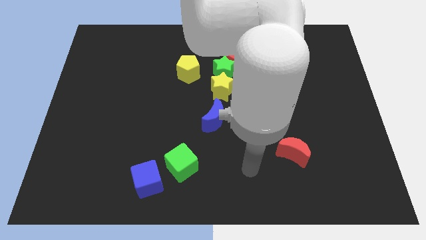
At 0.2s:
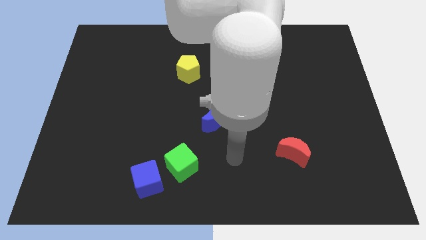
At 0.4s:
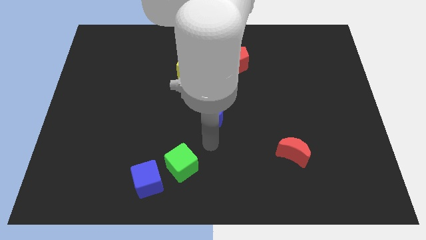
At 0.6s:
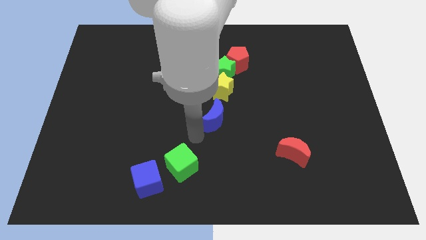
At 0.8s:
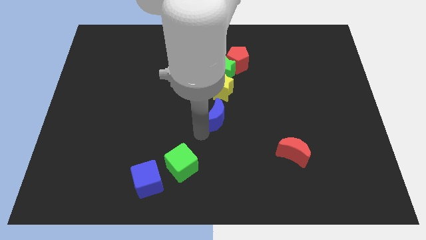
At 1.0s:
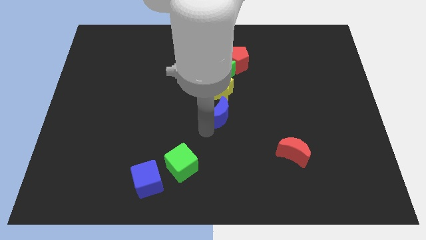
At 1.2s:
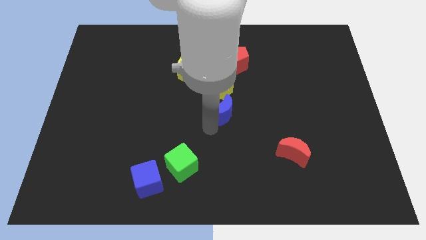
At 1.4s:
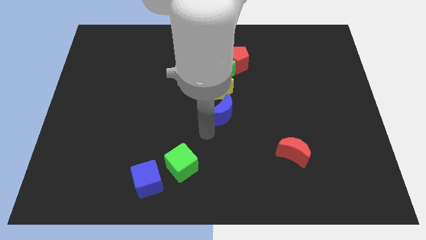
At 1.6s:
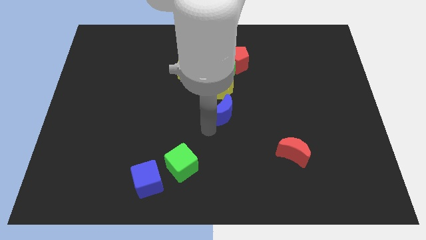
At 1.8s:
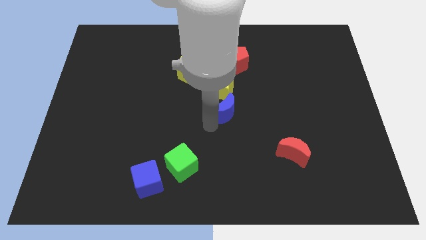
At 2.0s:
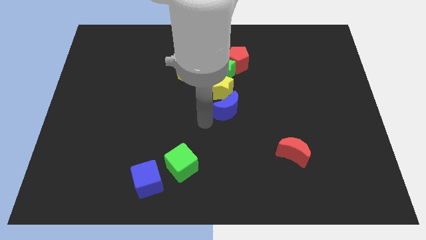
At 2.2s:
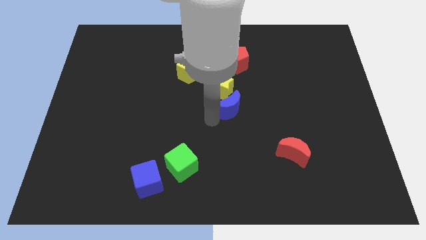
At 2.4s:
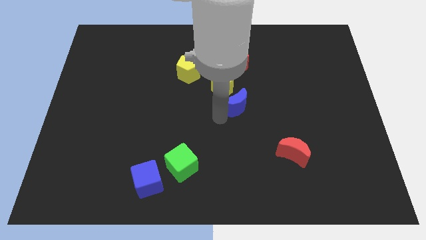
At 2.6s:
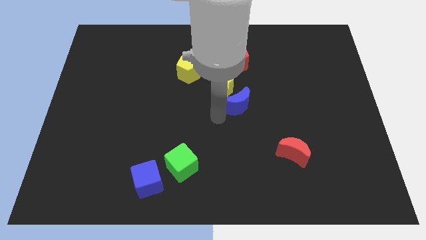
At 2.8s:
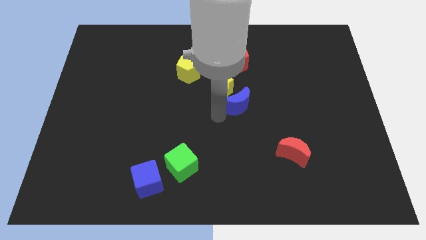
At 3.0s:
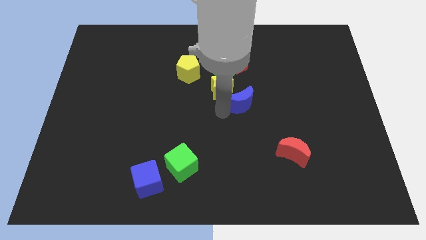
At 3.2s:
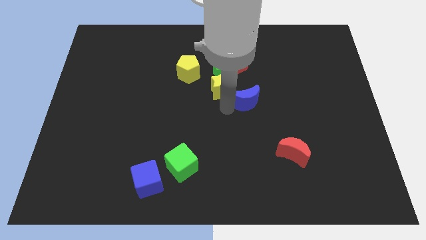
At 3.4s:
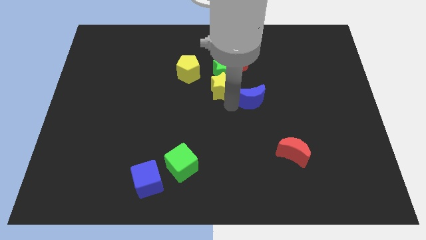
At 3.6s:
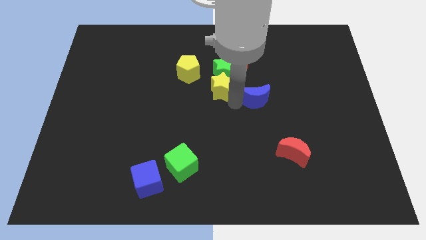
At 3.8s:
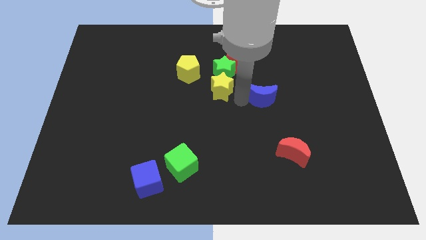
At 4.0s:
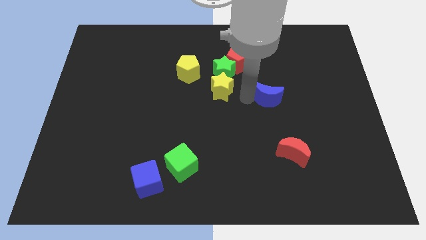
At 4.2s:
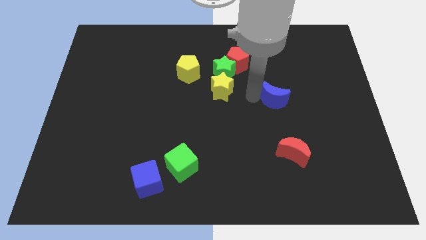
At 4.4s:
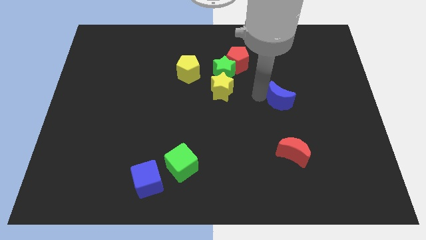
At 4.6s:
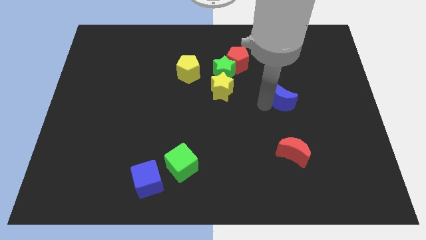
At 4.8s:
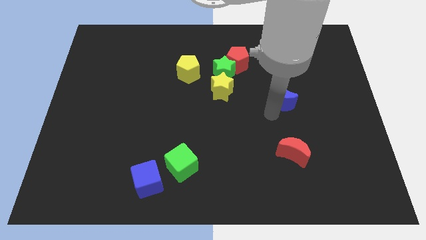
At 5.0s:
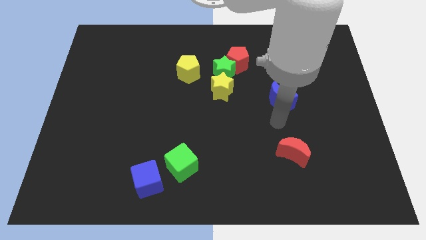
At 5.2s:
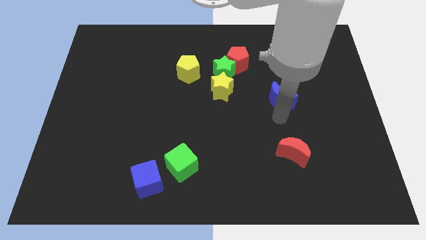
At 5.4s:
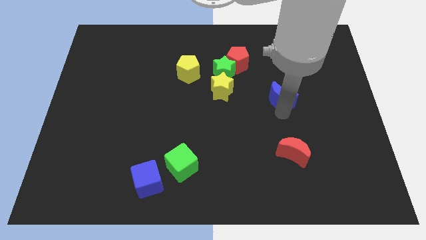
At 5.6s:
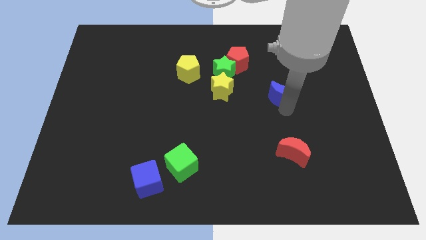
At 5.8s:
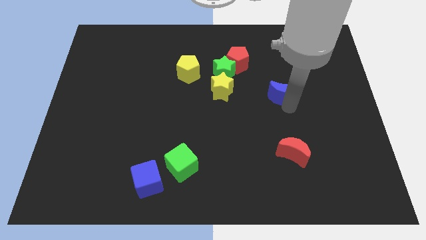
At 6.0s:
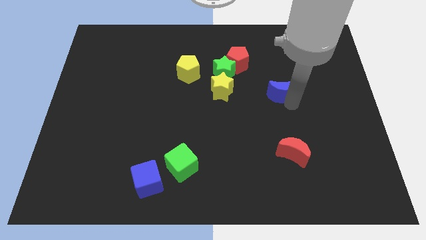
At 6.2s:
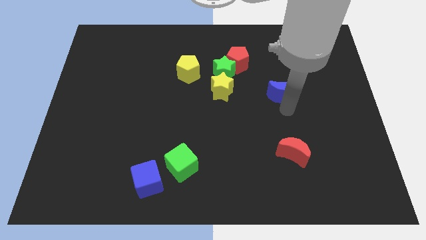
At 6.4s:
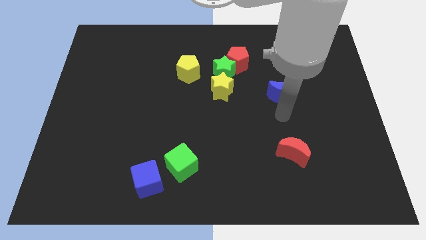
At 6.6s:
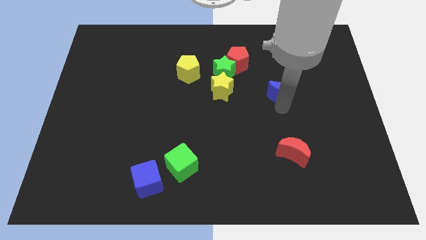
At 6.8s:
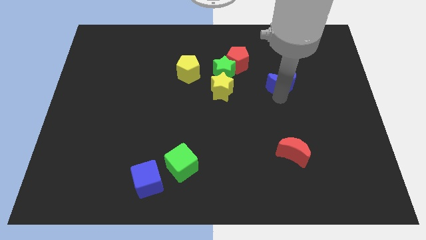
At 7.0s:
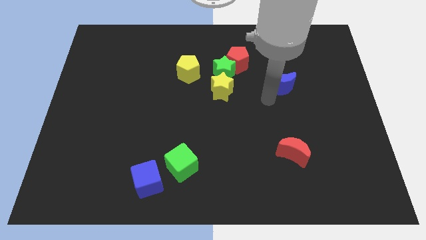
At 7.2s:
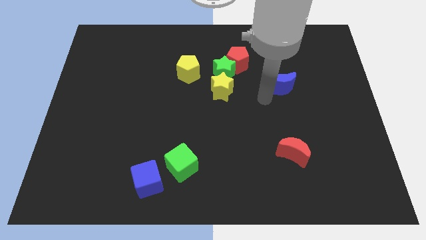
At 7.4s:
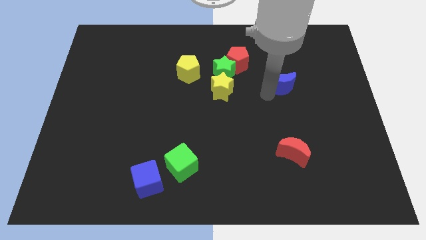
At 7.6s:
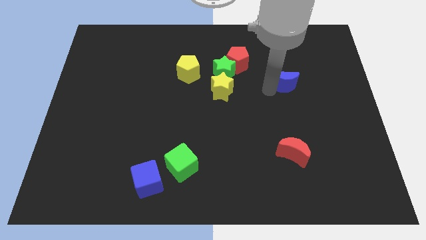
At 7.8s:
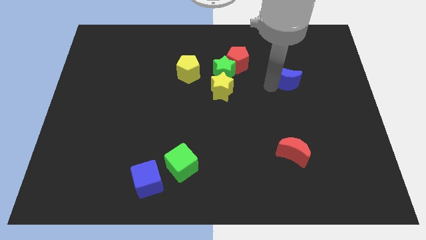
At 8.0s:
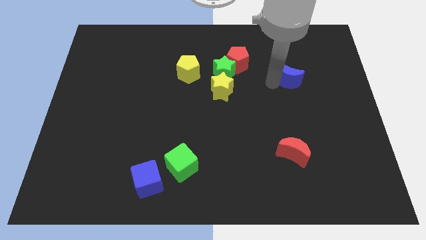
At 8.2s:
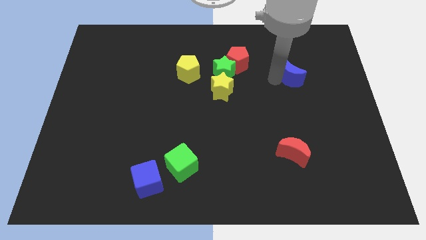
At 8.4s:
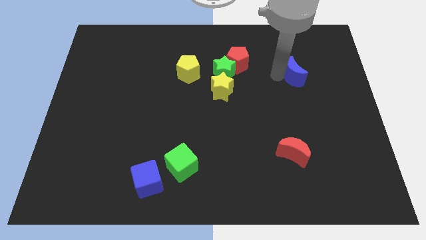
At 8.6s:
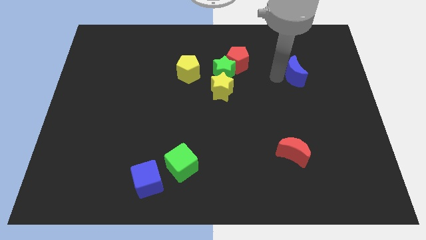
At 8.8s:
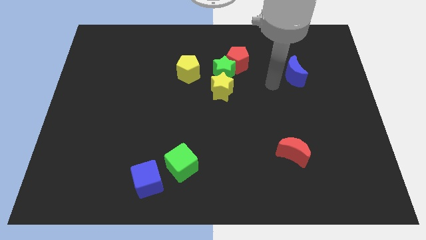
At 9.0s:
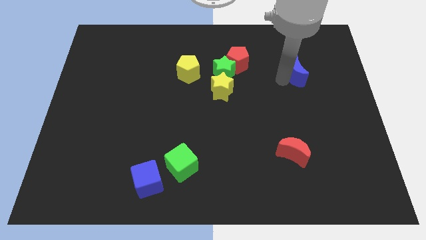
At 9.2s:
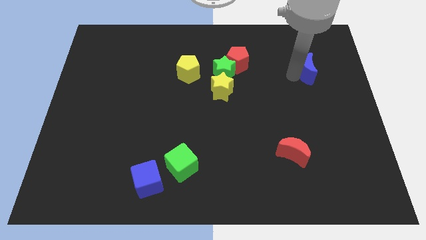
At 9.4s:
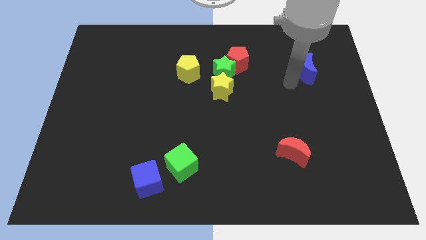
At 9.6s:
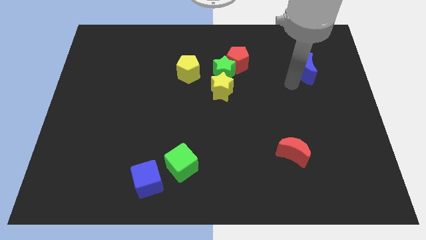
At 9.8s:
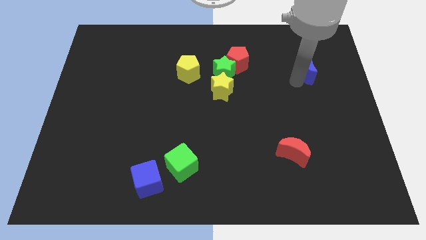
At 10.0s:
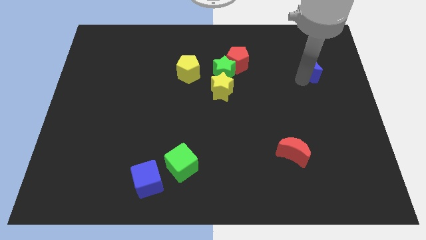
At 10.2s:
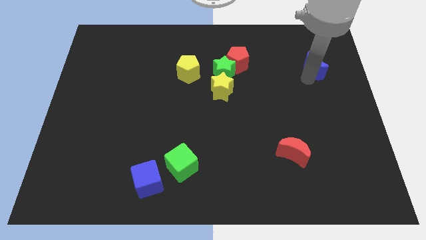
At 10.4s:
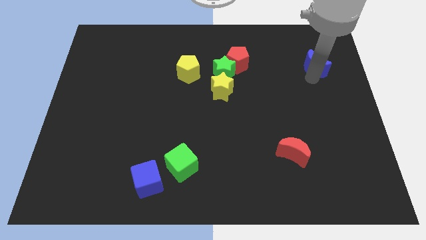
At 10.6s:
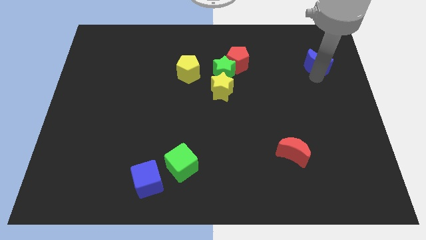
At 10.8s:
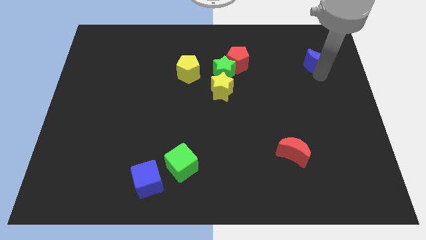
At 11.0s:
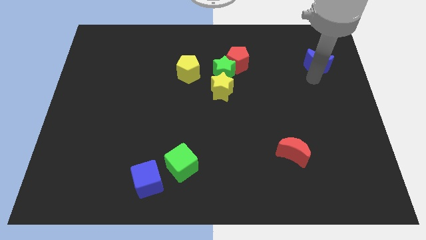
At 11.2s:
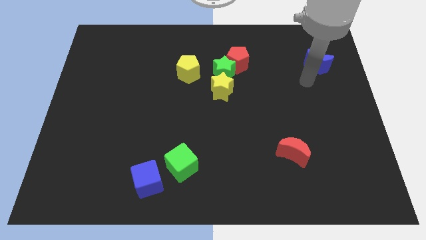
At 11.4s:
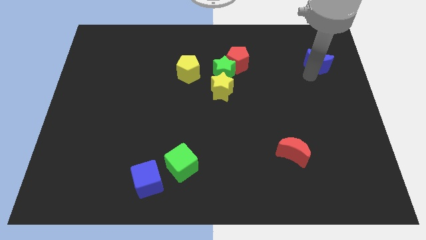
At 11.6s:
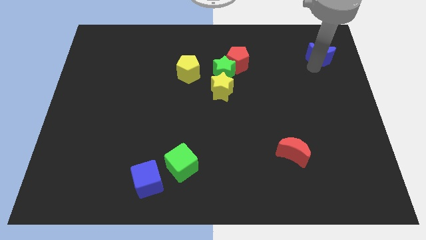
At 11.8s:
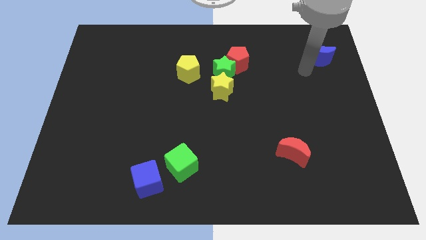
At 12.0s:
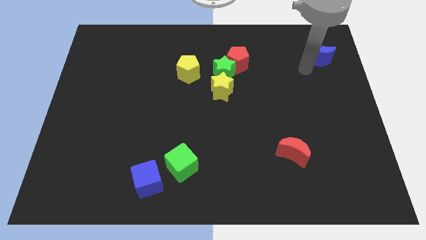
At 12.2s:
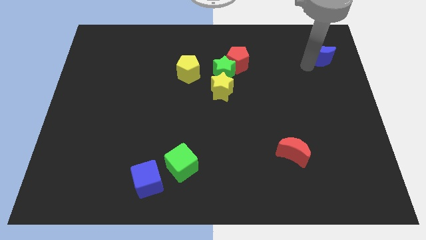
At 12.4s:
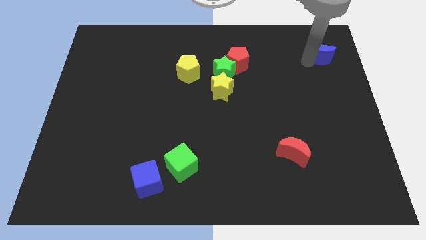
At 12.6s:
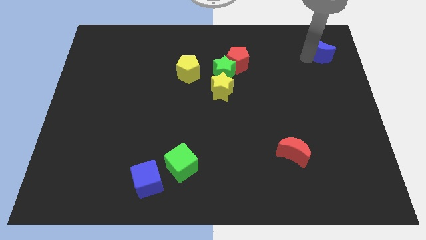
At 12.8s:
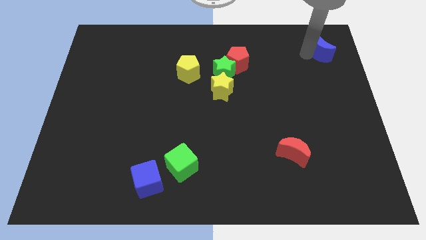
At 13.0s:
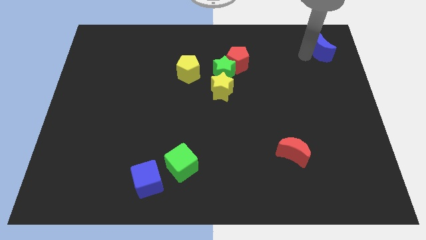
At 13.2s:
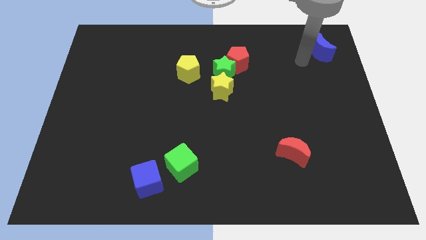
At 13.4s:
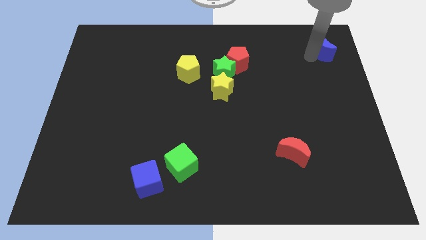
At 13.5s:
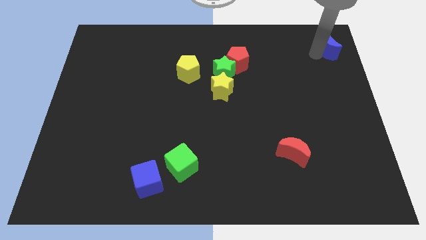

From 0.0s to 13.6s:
slide the blue moon to the top right of the board
